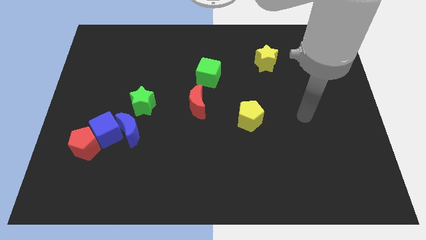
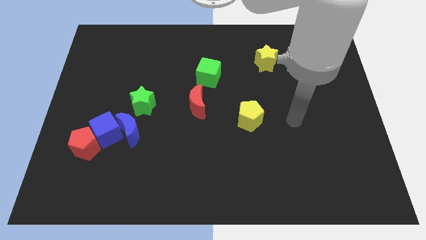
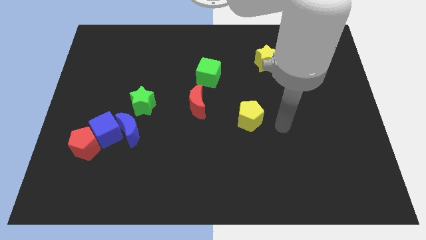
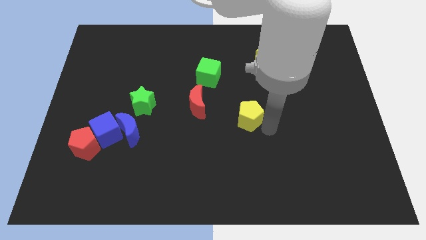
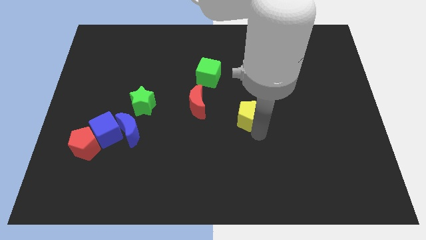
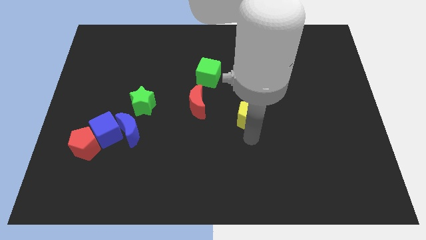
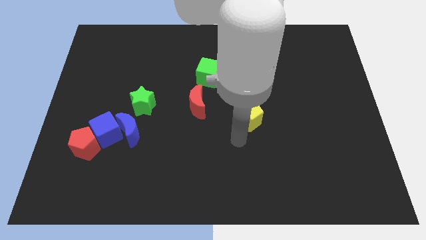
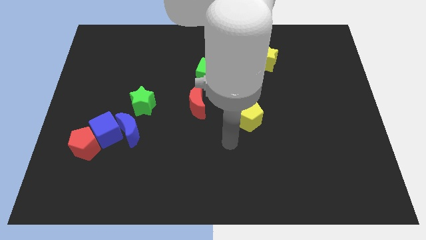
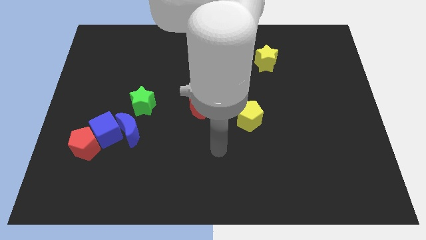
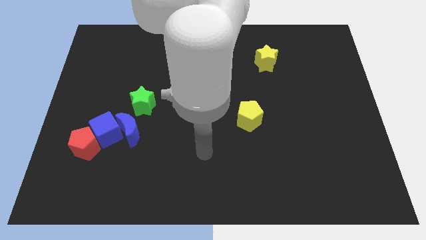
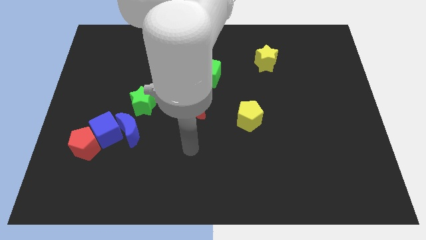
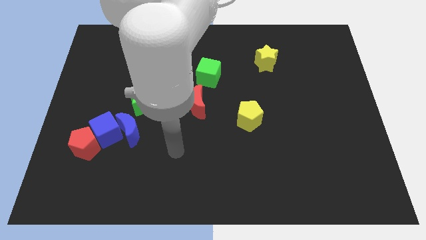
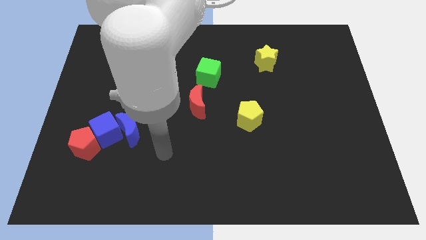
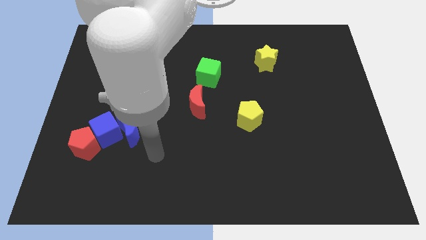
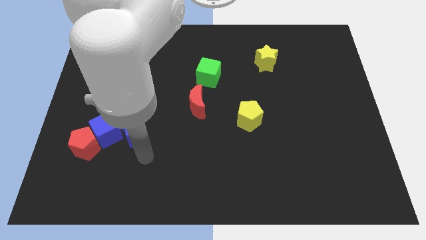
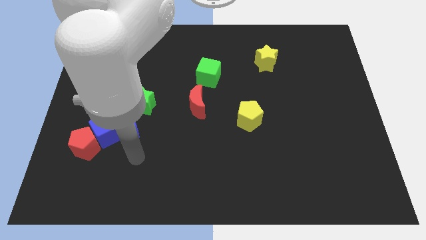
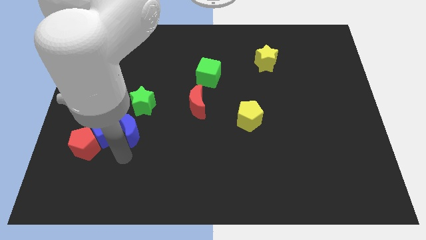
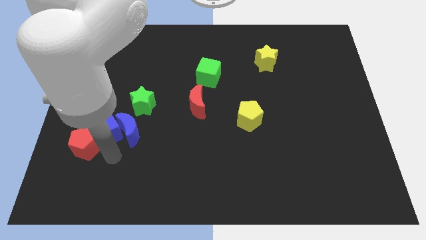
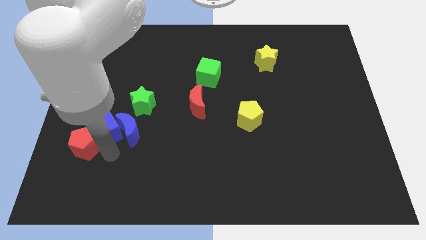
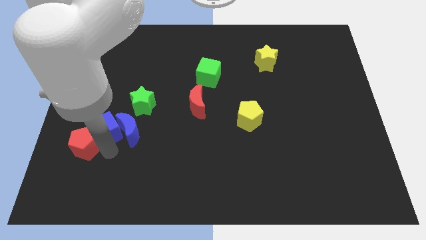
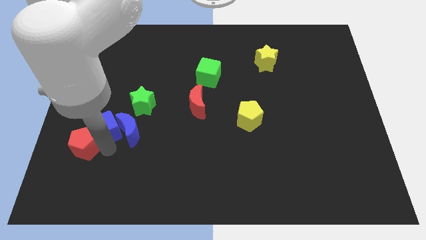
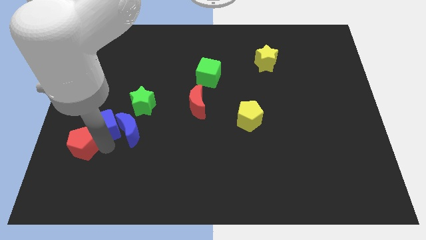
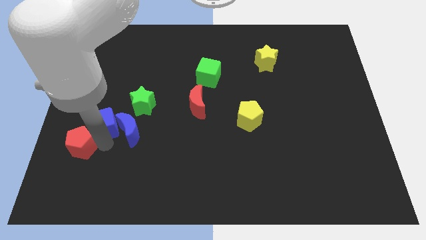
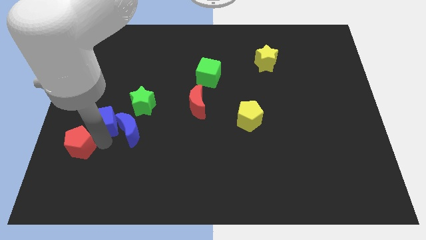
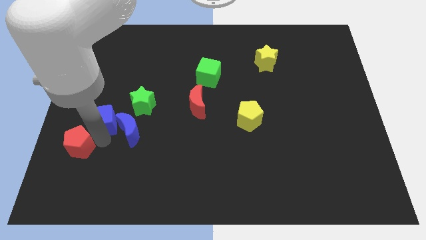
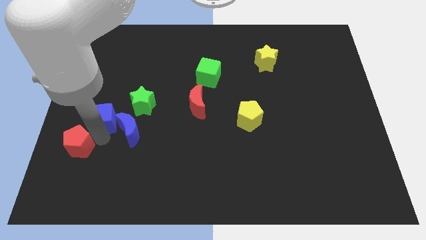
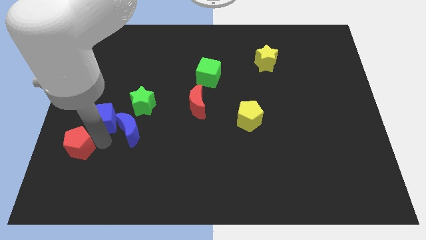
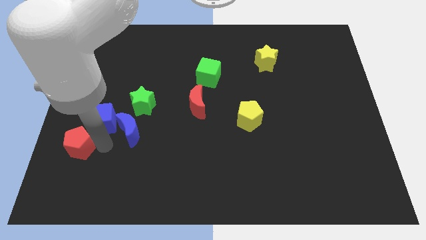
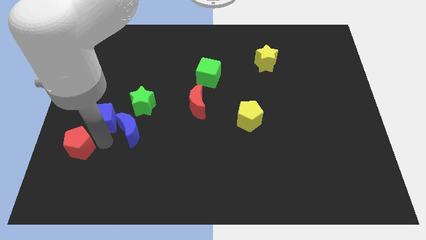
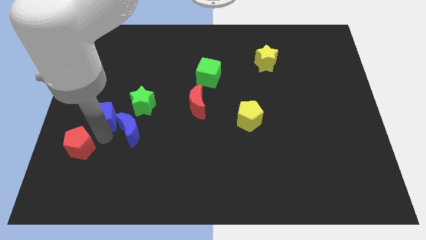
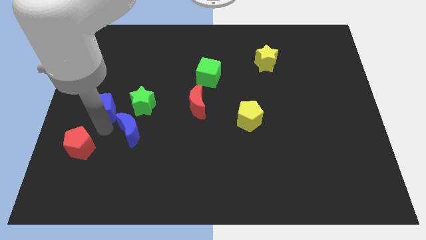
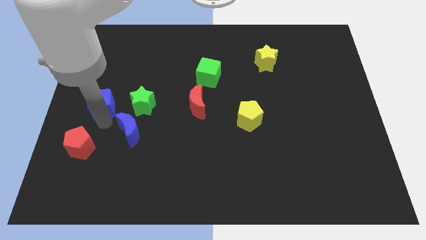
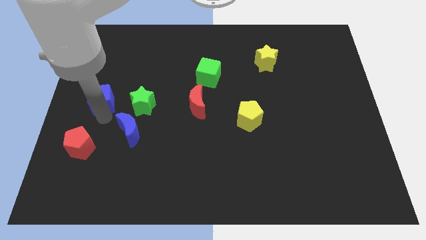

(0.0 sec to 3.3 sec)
pull the blue cube apart from the blue moon and red pentagon

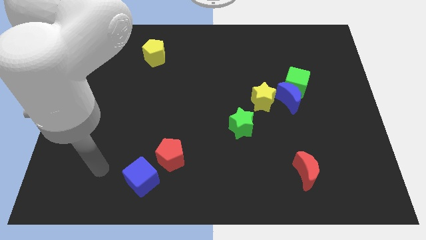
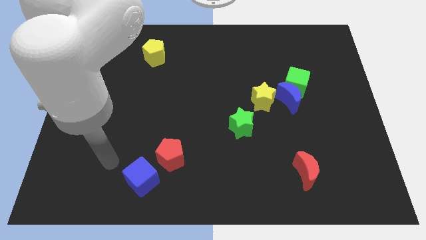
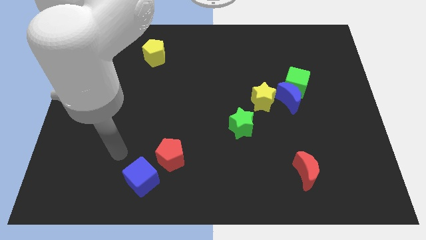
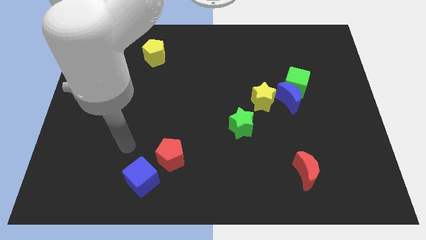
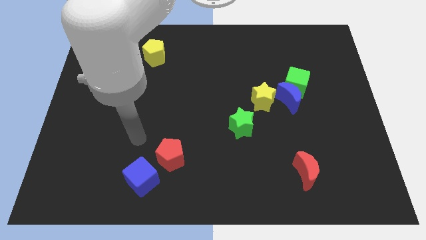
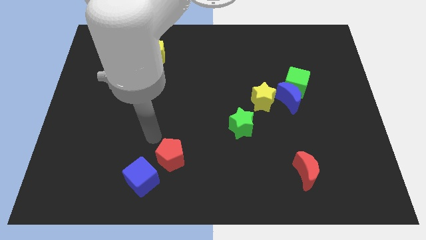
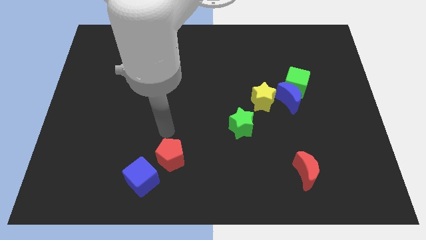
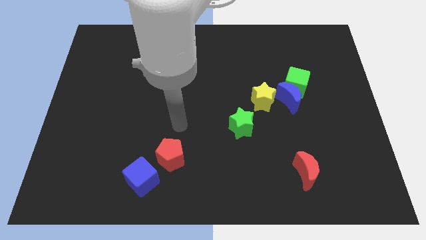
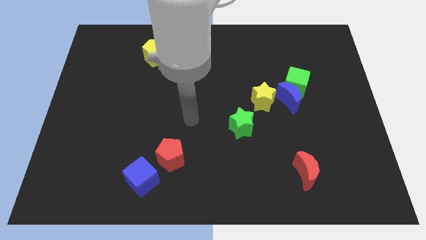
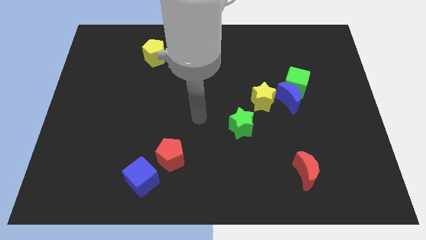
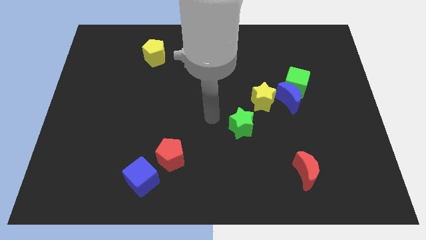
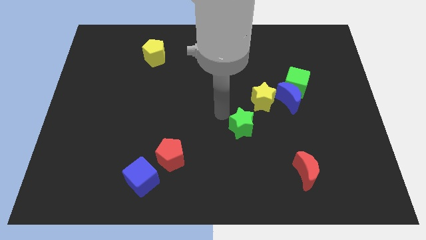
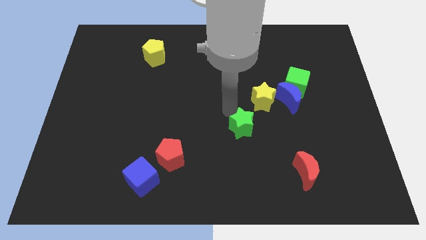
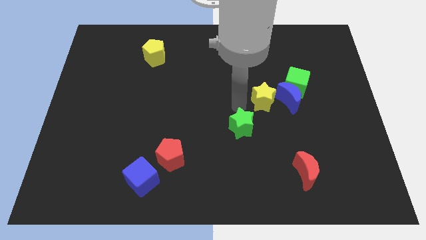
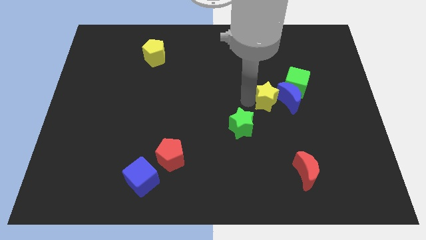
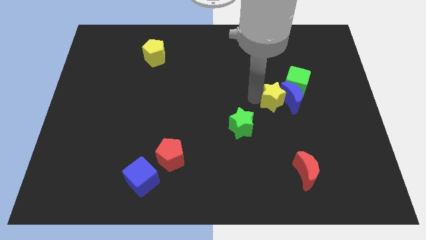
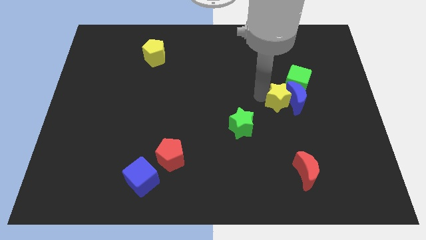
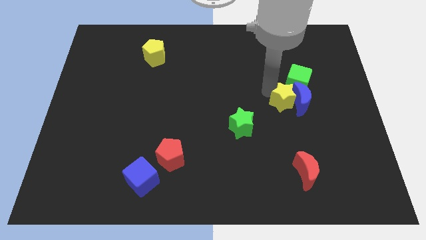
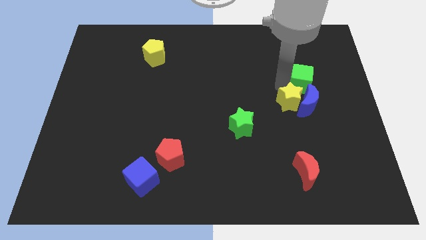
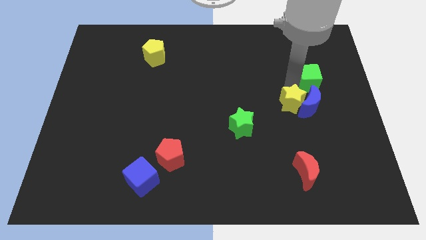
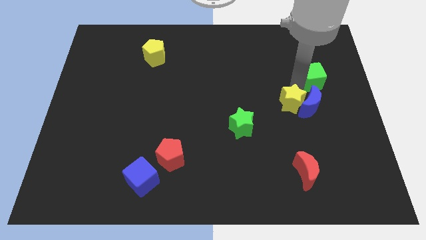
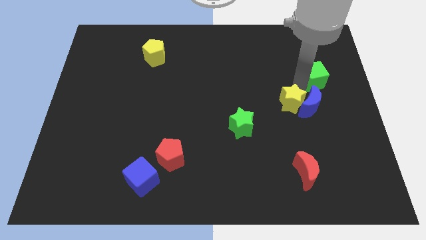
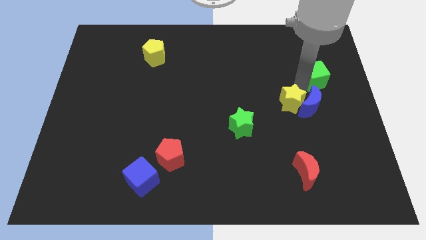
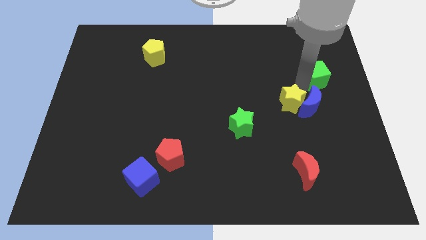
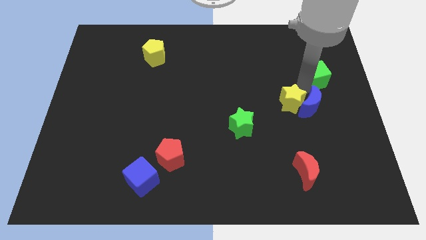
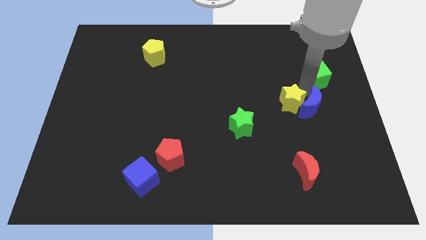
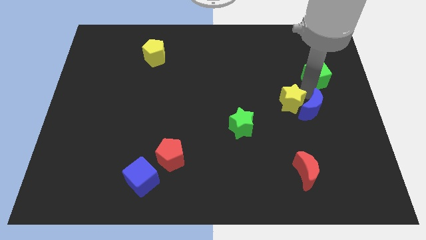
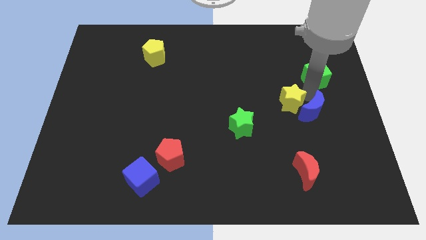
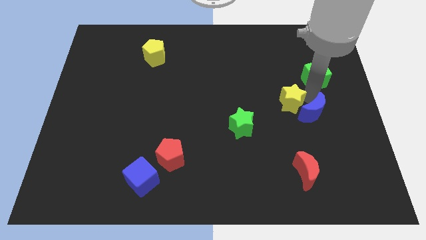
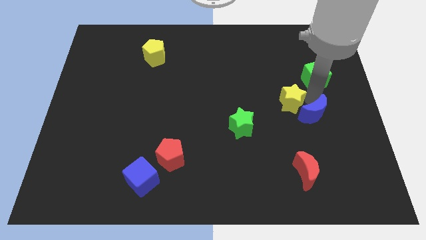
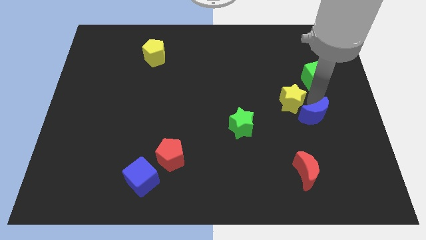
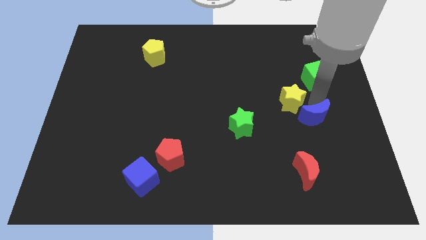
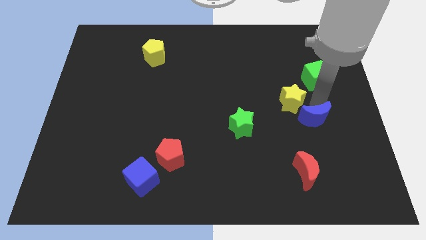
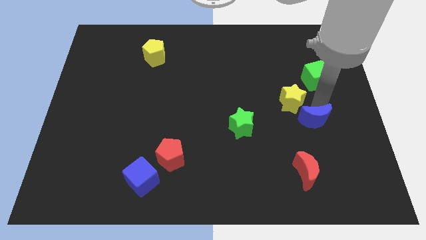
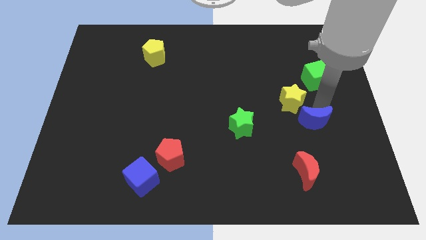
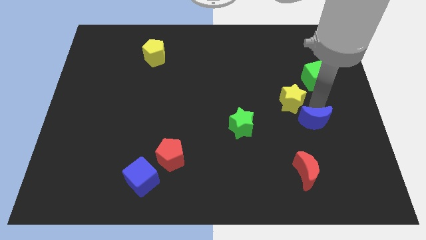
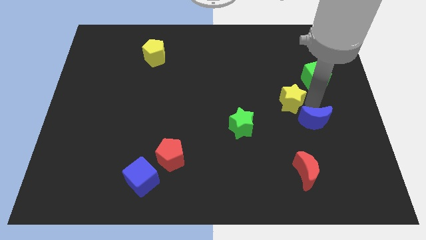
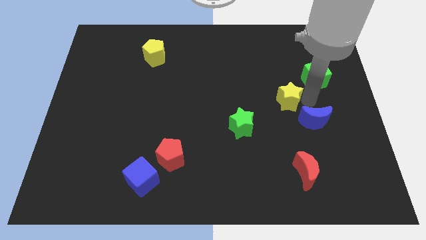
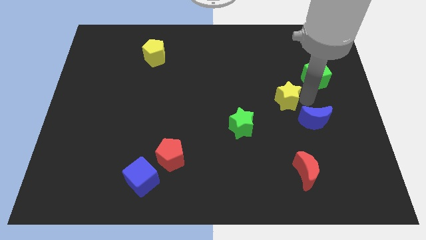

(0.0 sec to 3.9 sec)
move the blue moon away from the green cube and yellow star

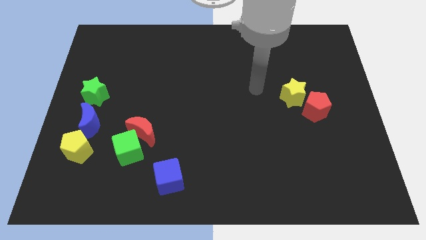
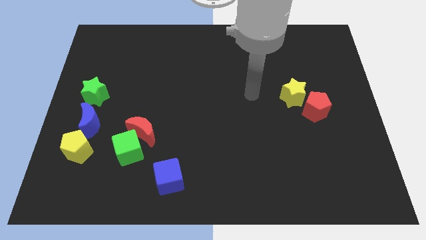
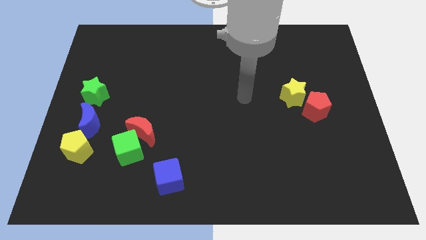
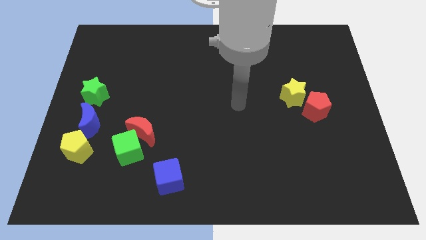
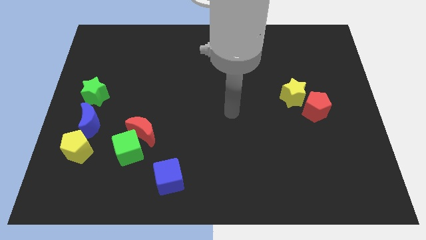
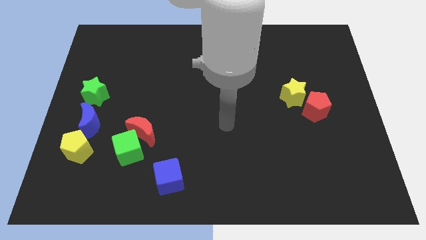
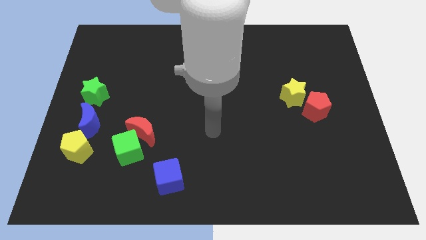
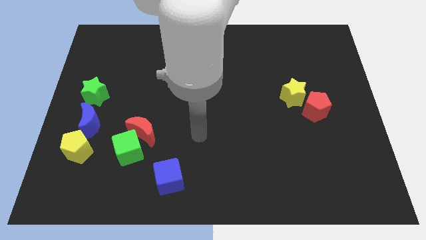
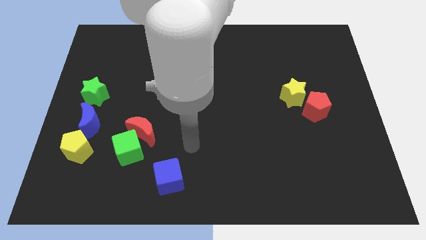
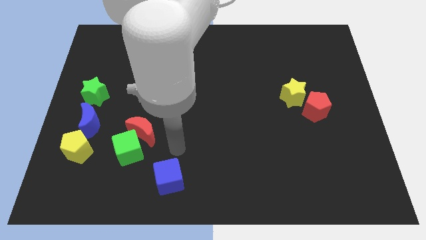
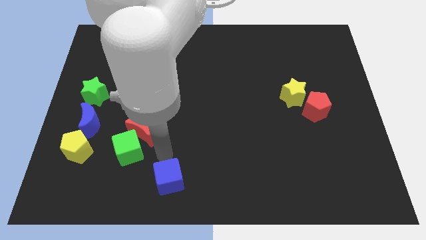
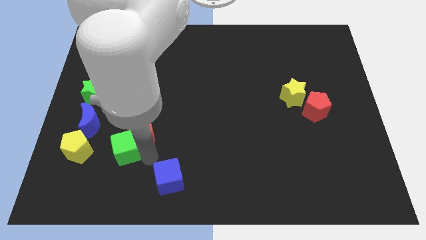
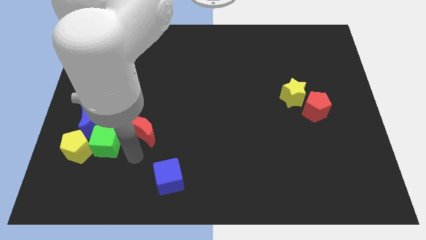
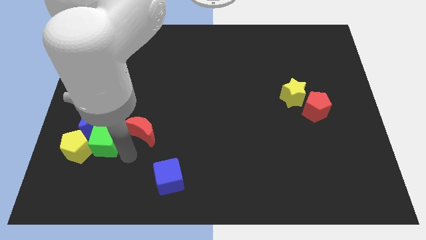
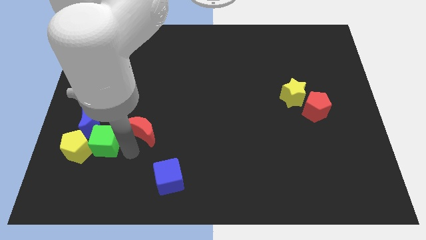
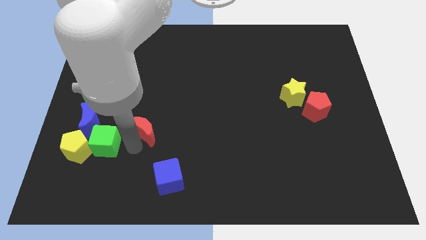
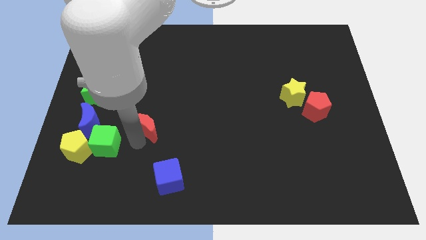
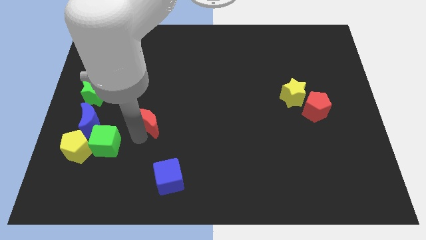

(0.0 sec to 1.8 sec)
separate the red moon from the green cube

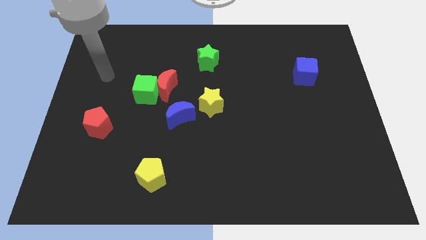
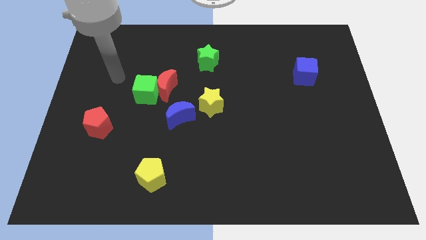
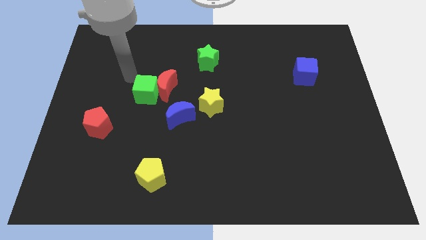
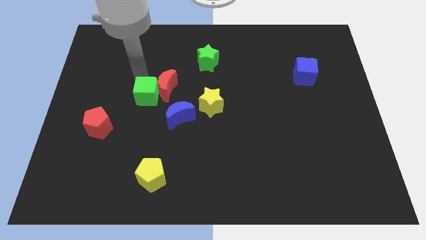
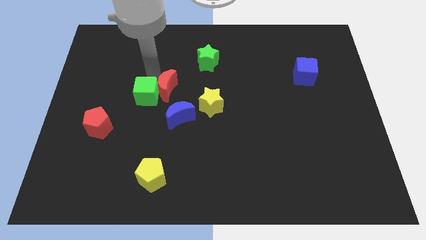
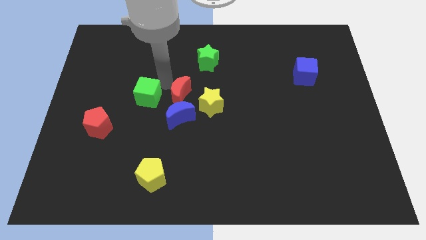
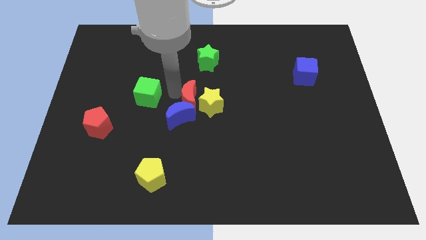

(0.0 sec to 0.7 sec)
move the green cube away from the red moon
